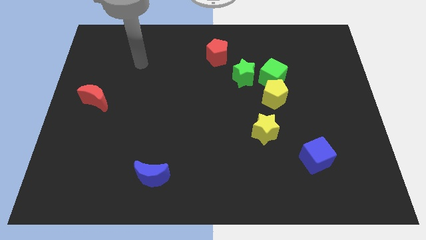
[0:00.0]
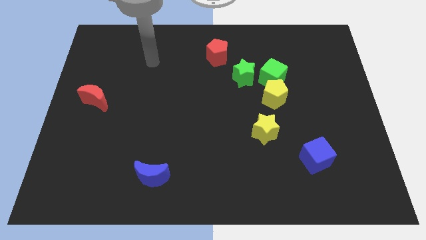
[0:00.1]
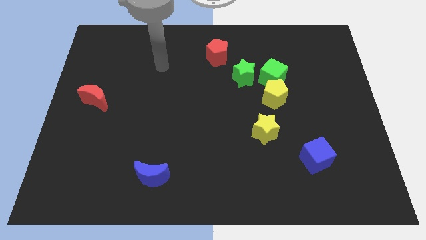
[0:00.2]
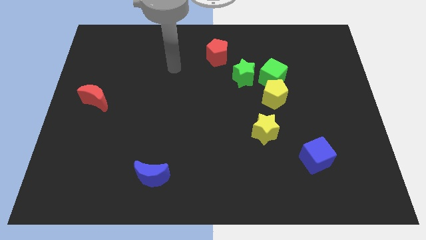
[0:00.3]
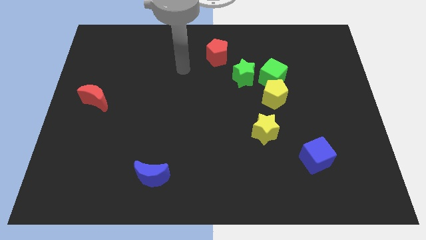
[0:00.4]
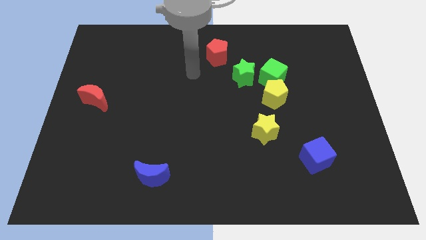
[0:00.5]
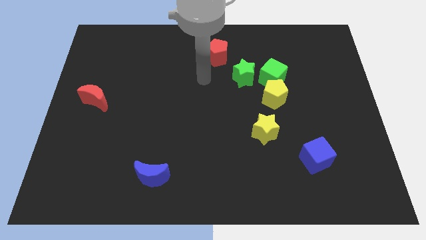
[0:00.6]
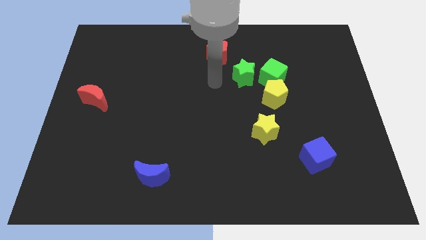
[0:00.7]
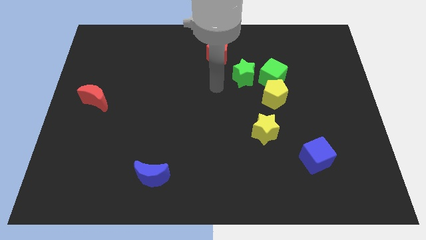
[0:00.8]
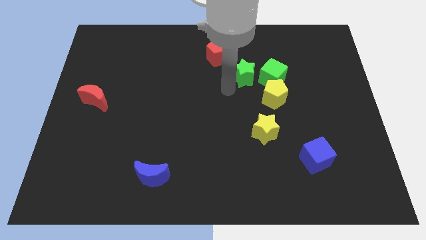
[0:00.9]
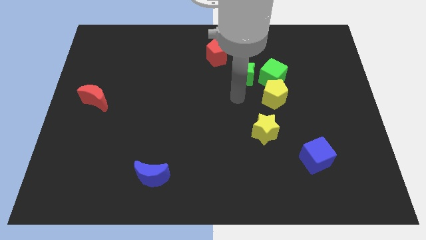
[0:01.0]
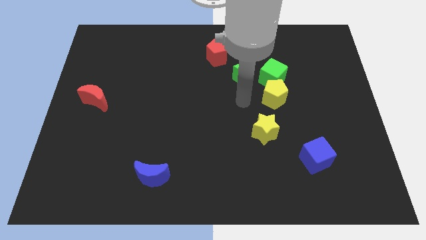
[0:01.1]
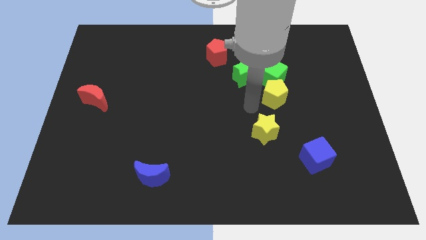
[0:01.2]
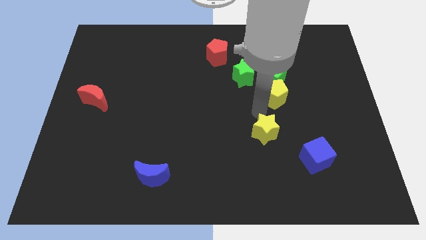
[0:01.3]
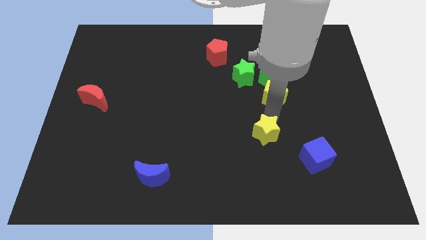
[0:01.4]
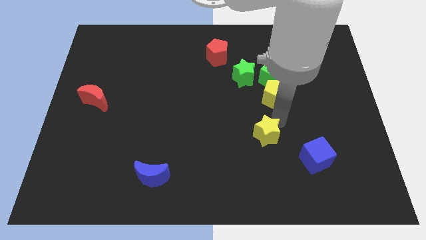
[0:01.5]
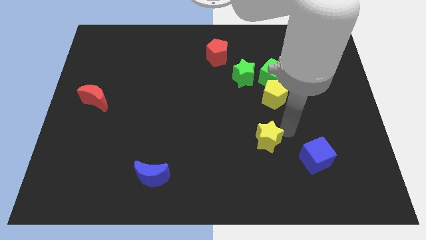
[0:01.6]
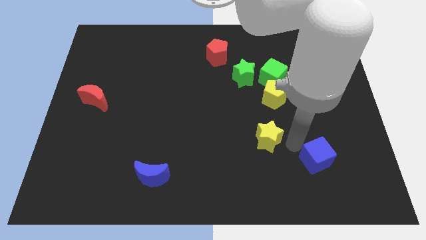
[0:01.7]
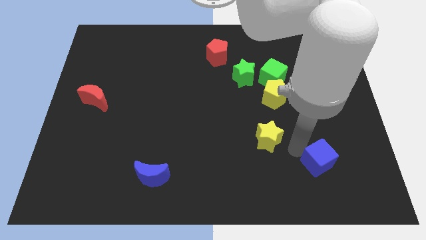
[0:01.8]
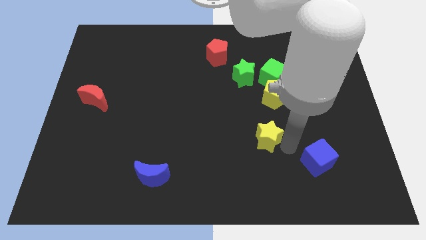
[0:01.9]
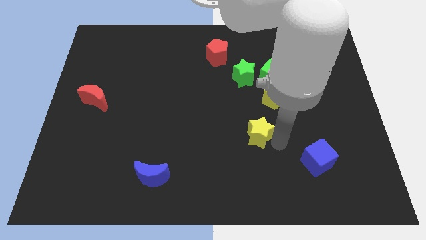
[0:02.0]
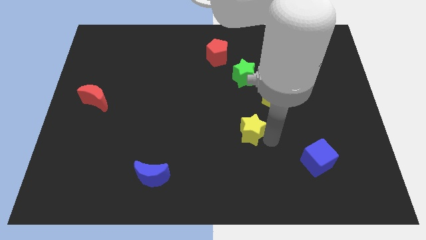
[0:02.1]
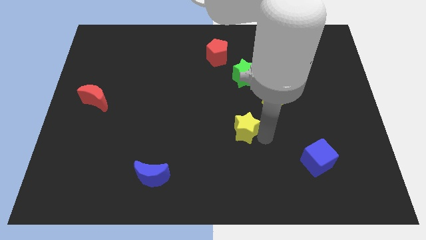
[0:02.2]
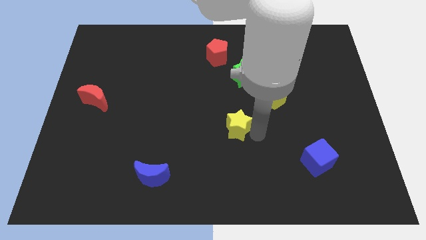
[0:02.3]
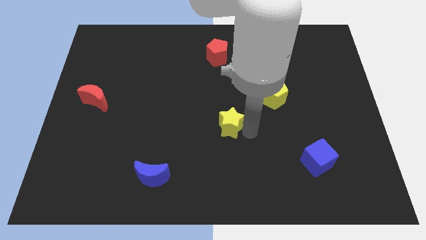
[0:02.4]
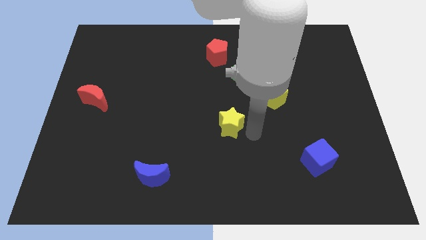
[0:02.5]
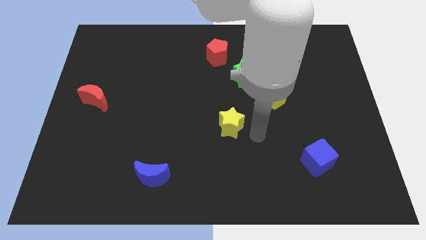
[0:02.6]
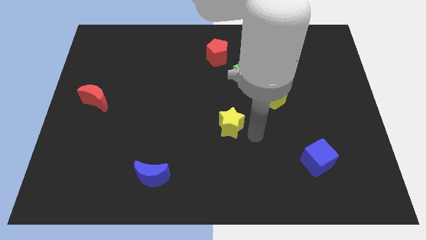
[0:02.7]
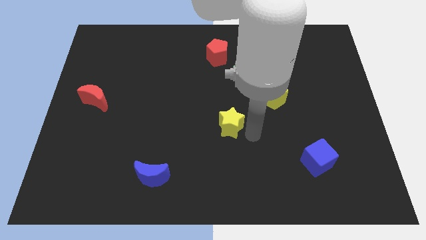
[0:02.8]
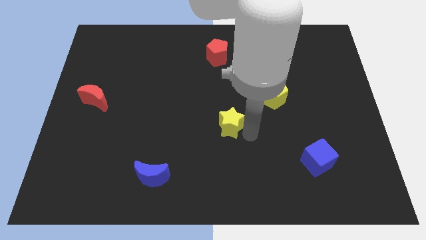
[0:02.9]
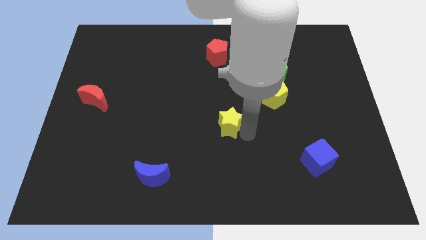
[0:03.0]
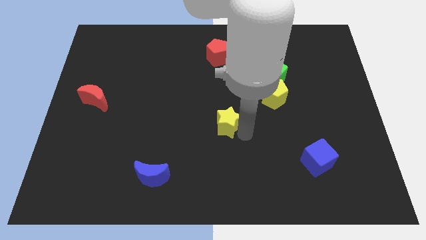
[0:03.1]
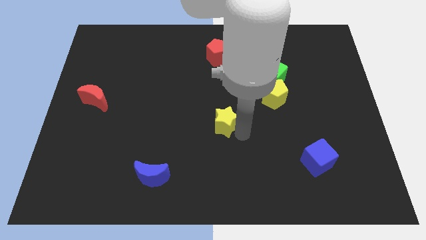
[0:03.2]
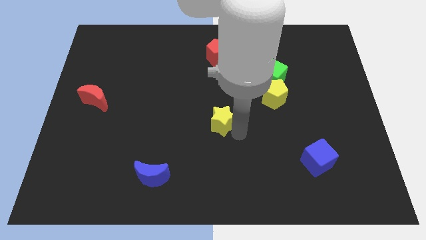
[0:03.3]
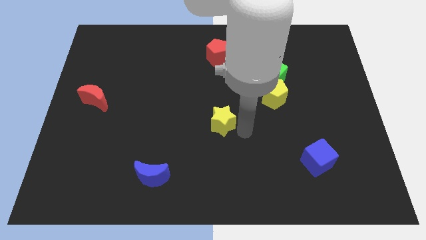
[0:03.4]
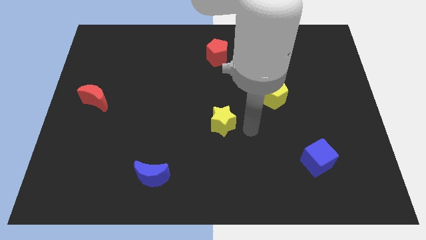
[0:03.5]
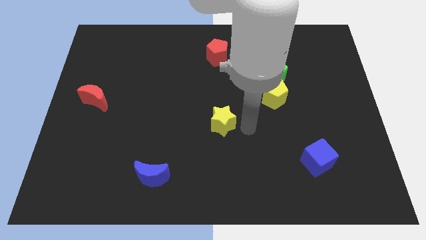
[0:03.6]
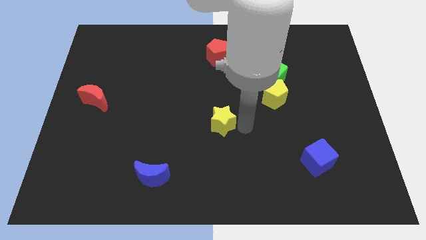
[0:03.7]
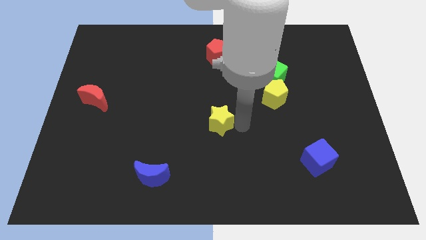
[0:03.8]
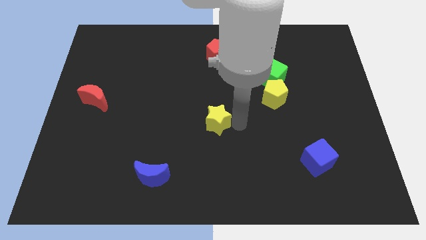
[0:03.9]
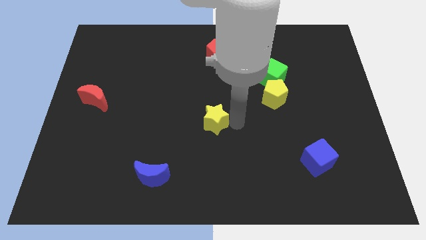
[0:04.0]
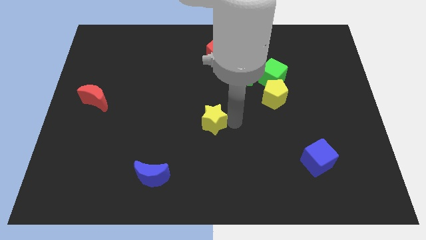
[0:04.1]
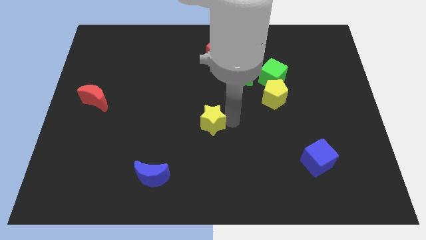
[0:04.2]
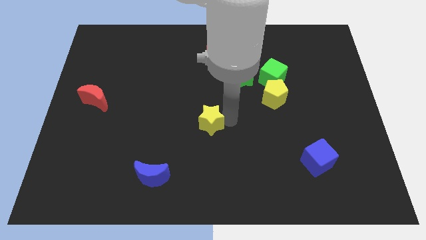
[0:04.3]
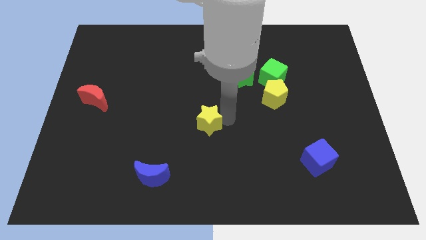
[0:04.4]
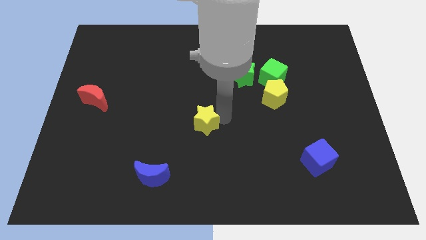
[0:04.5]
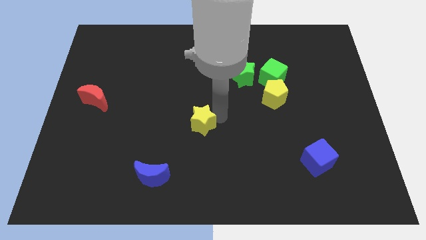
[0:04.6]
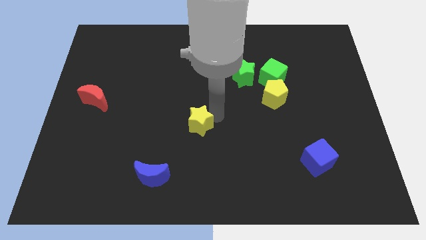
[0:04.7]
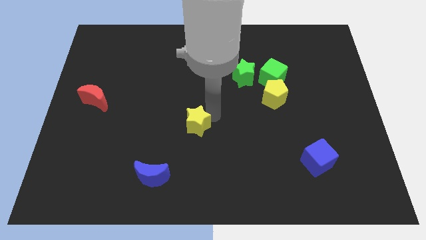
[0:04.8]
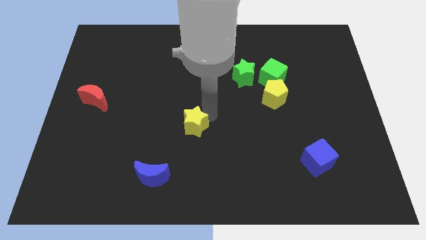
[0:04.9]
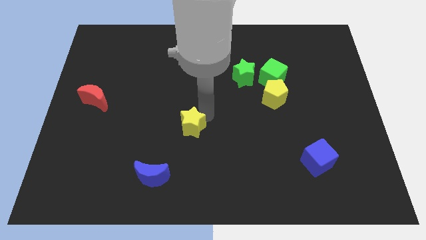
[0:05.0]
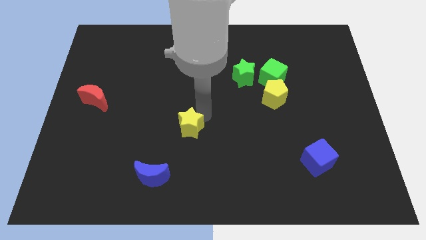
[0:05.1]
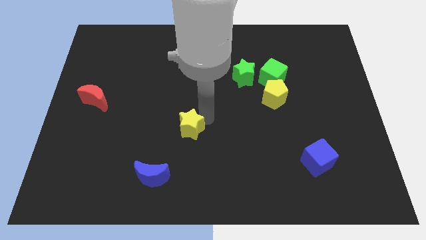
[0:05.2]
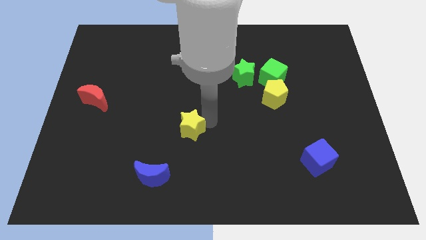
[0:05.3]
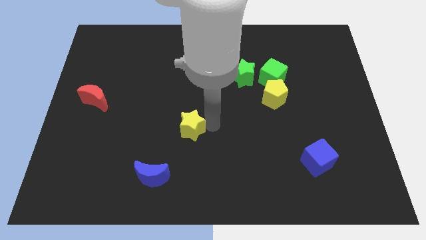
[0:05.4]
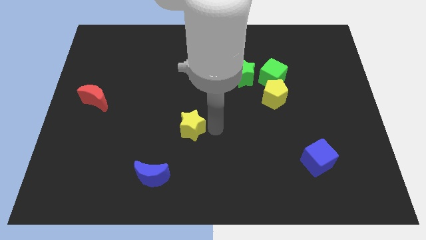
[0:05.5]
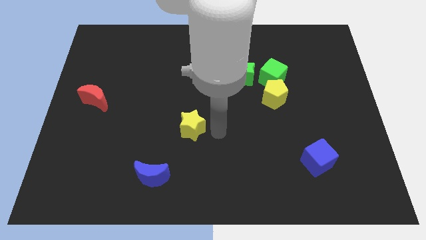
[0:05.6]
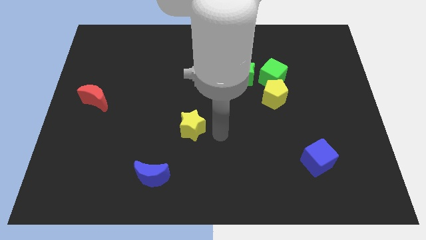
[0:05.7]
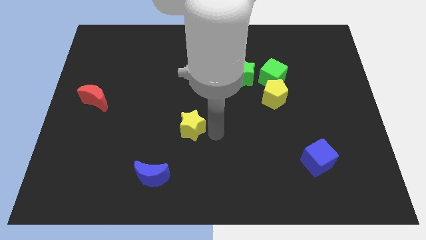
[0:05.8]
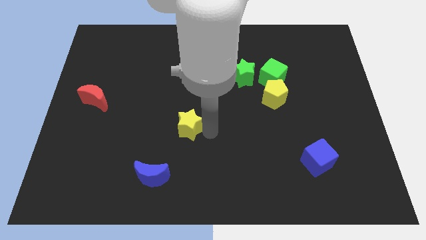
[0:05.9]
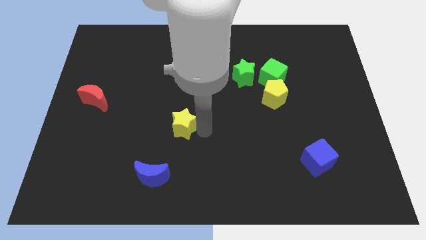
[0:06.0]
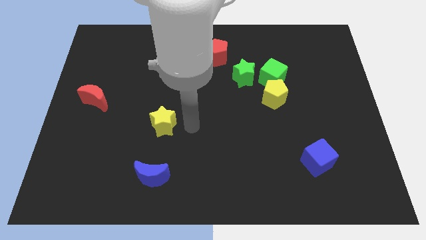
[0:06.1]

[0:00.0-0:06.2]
move the yellow star left

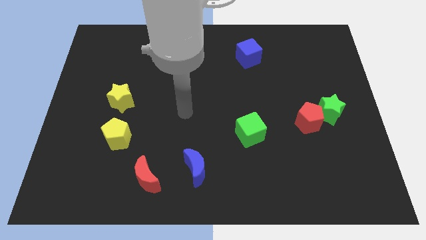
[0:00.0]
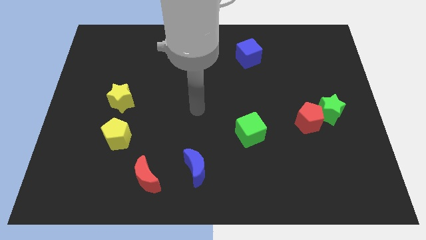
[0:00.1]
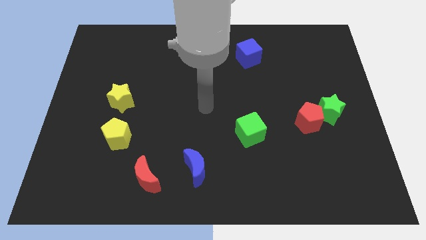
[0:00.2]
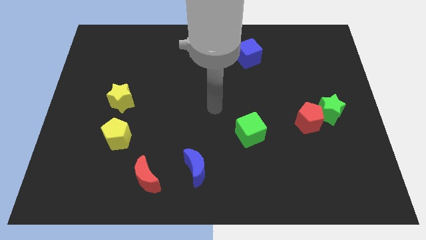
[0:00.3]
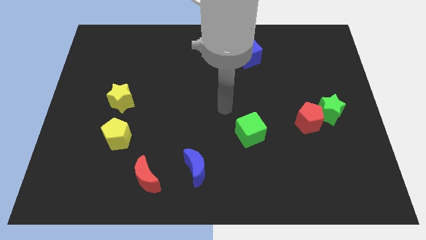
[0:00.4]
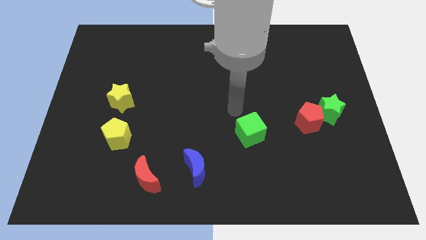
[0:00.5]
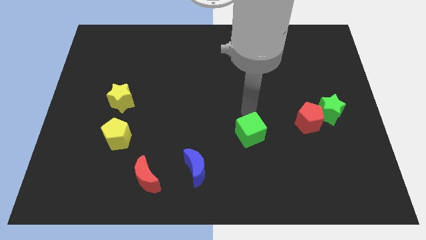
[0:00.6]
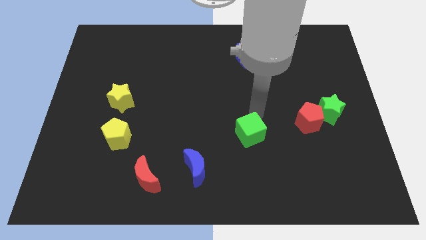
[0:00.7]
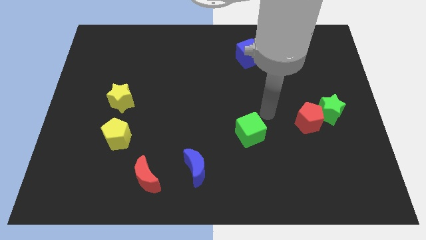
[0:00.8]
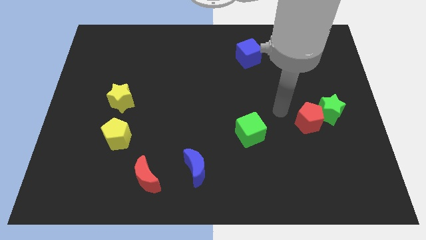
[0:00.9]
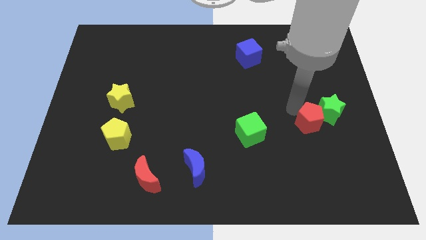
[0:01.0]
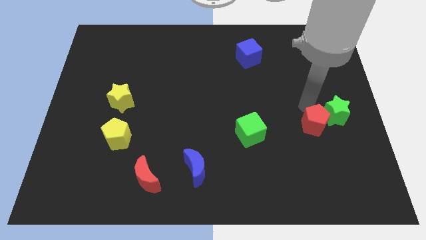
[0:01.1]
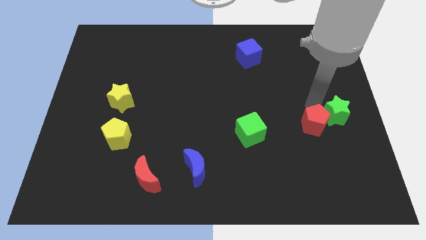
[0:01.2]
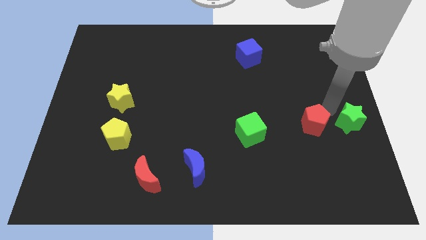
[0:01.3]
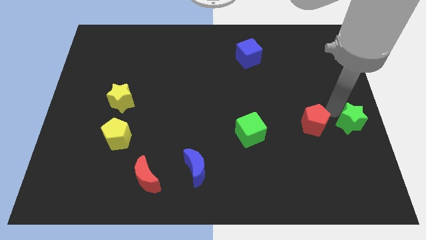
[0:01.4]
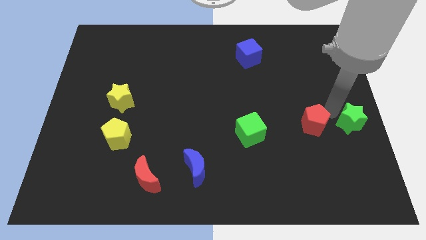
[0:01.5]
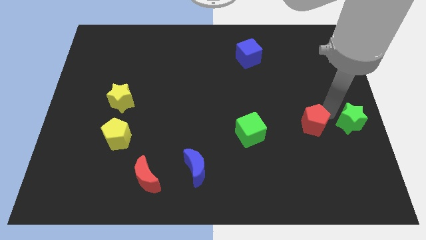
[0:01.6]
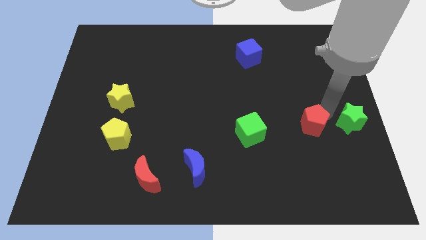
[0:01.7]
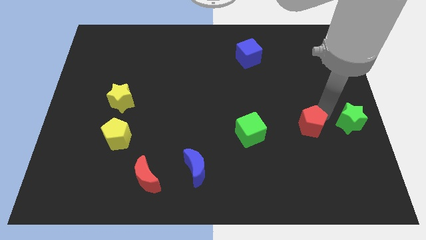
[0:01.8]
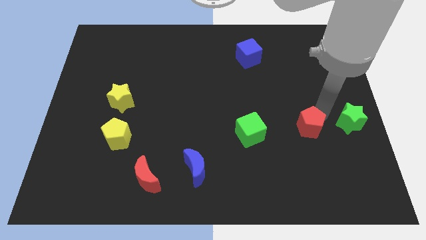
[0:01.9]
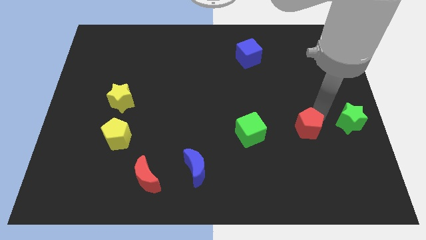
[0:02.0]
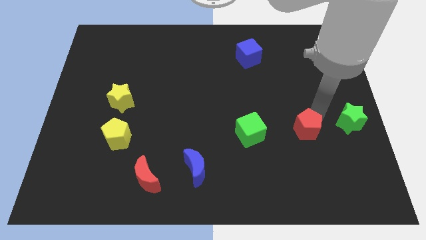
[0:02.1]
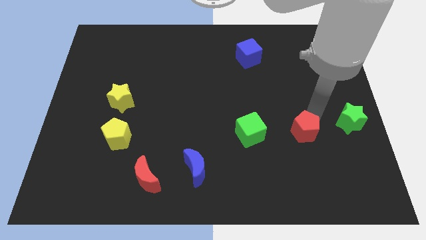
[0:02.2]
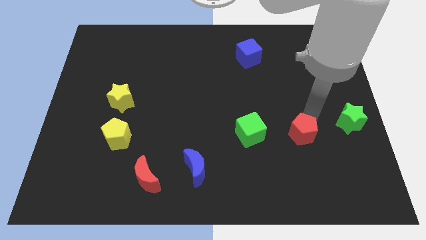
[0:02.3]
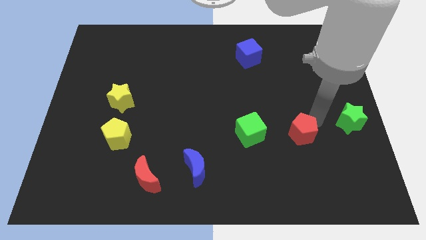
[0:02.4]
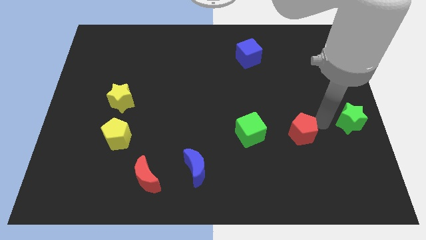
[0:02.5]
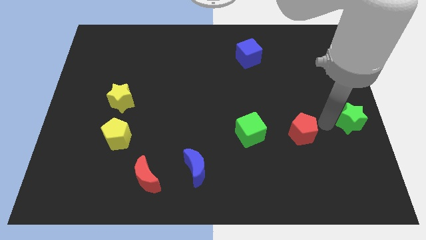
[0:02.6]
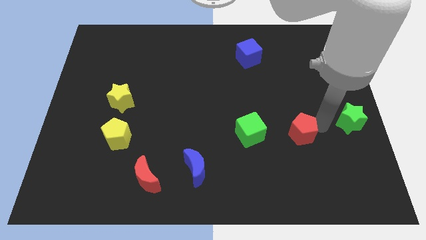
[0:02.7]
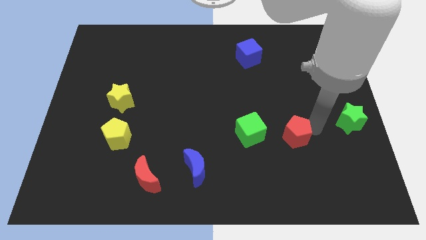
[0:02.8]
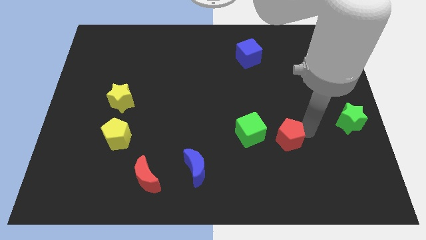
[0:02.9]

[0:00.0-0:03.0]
push the red pentagon a bit downwards and to the left diagonally
